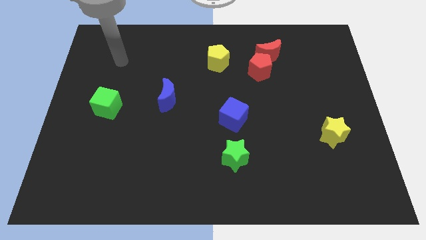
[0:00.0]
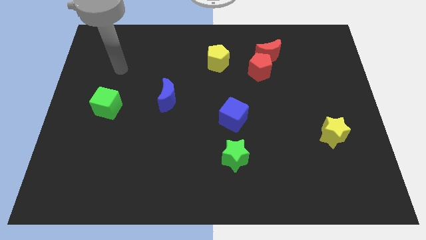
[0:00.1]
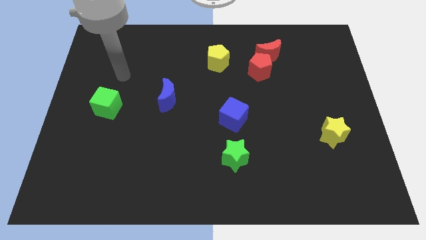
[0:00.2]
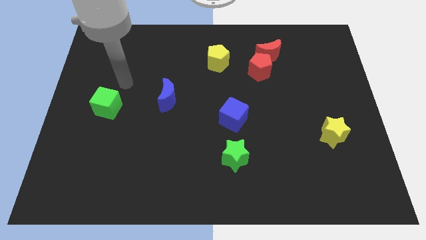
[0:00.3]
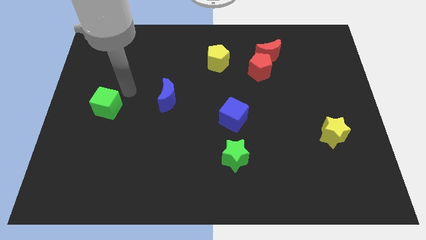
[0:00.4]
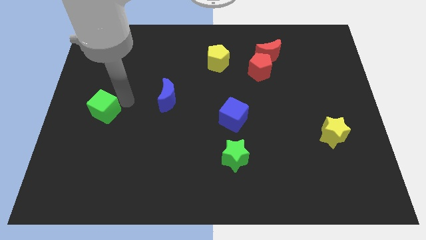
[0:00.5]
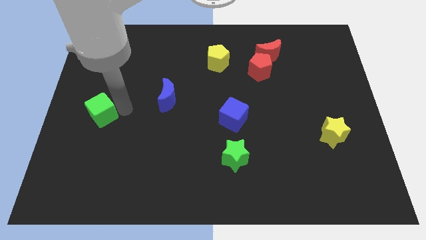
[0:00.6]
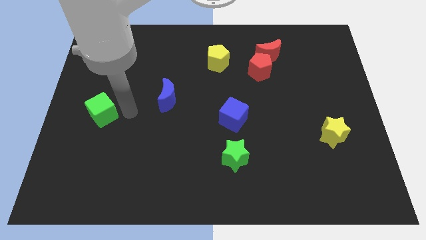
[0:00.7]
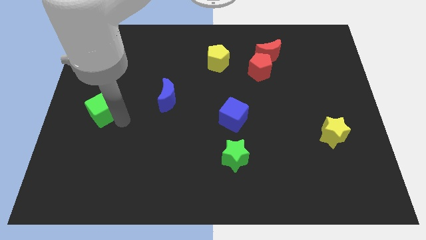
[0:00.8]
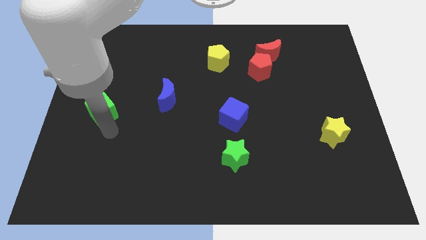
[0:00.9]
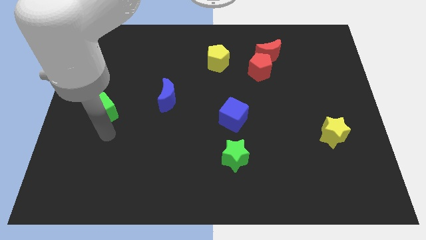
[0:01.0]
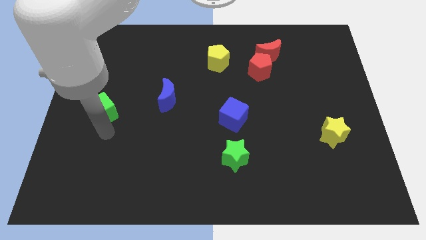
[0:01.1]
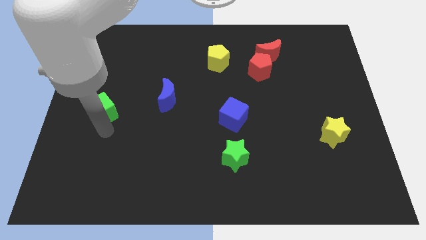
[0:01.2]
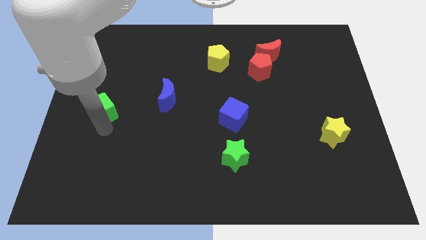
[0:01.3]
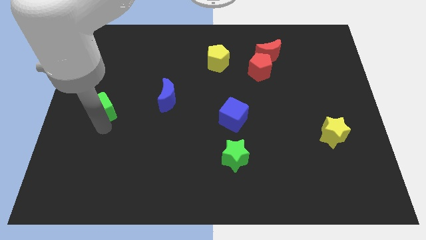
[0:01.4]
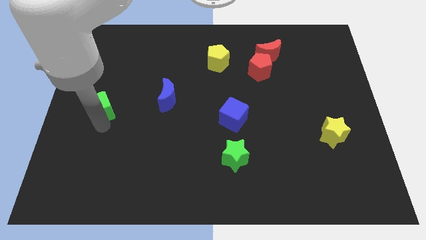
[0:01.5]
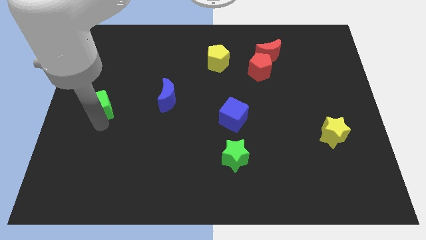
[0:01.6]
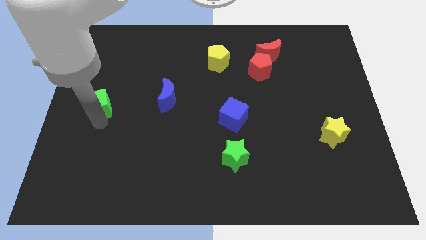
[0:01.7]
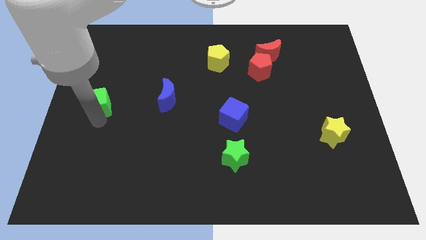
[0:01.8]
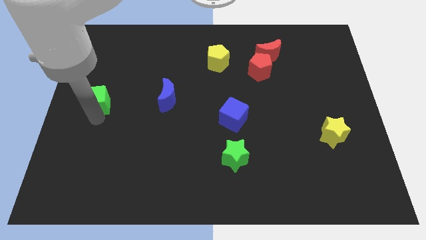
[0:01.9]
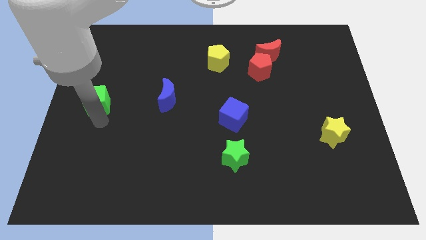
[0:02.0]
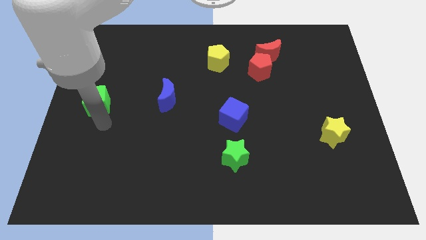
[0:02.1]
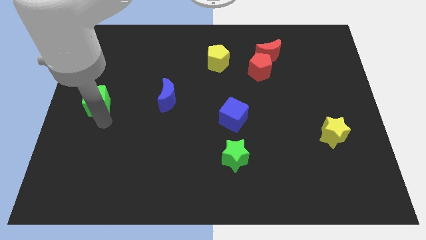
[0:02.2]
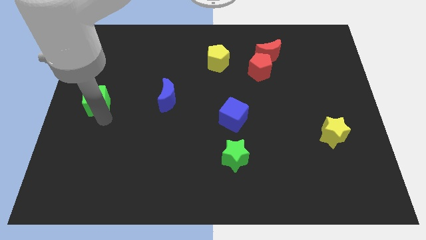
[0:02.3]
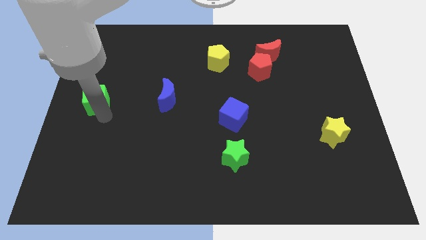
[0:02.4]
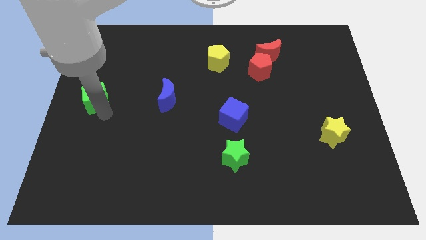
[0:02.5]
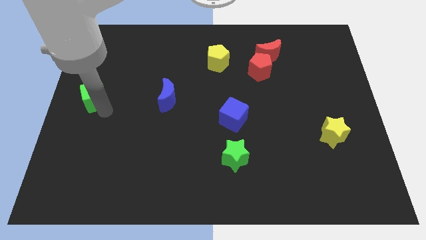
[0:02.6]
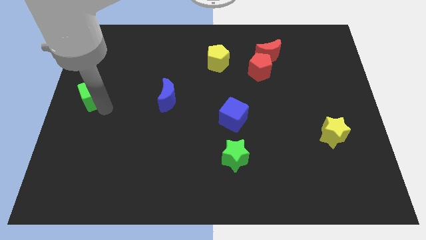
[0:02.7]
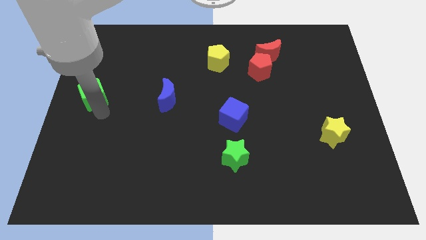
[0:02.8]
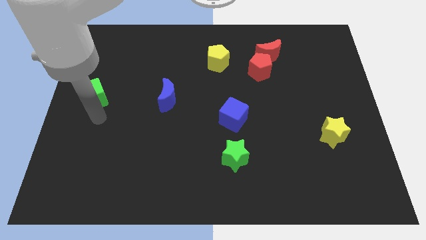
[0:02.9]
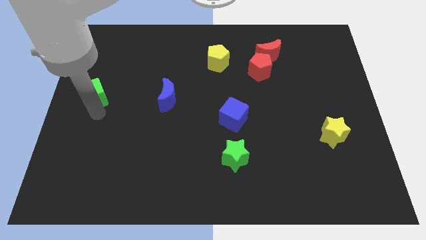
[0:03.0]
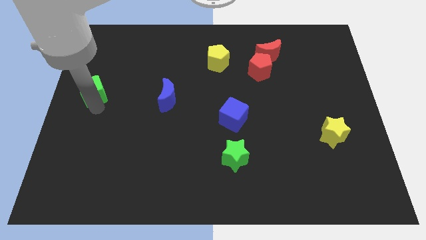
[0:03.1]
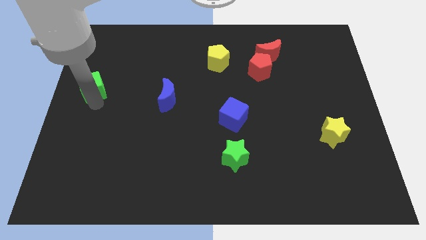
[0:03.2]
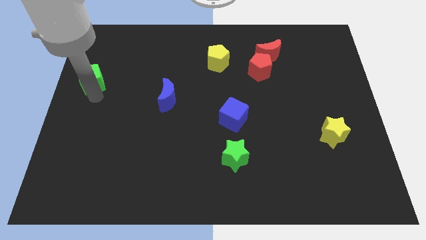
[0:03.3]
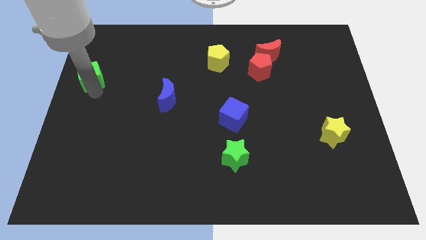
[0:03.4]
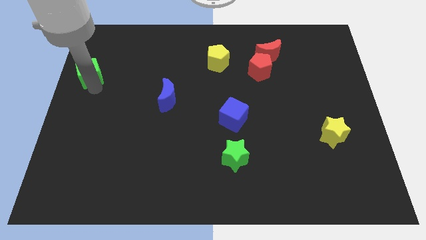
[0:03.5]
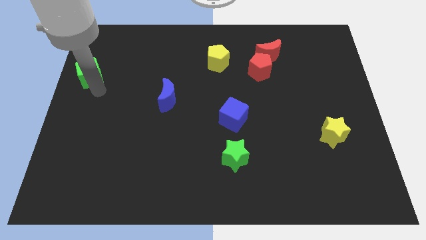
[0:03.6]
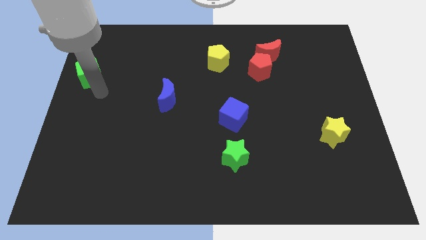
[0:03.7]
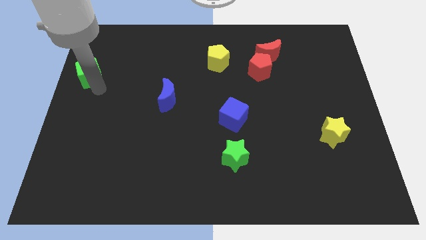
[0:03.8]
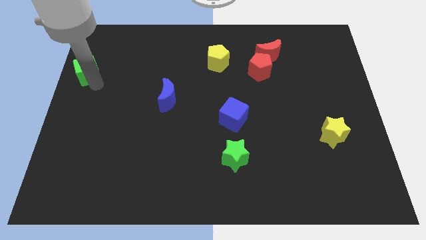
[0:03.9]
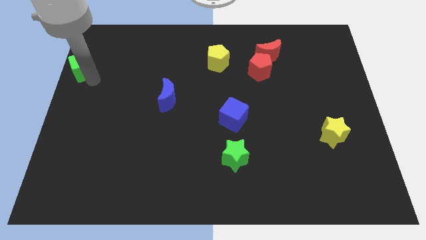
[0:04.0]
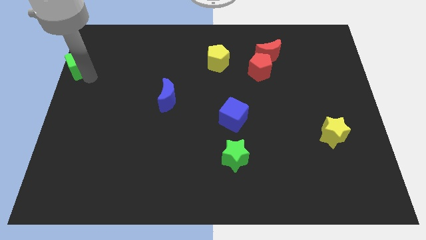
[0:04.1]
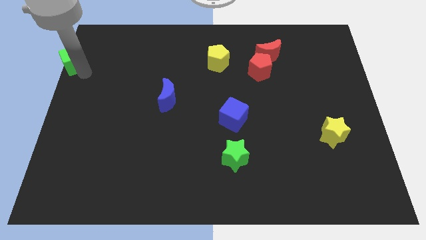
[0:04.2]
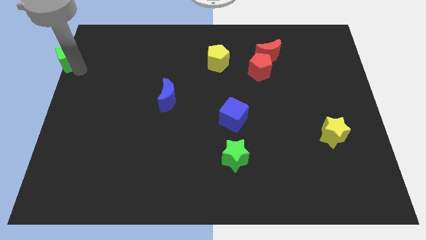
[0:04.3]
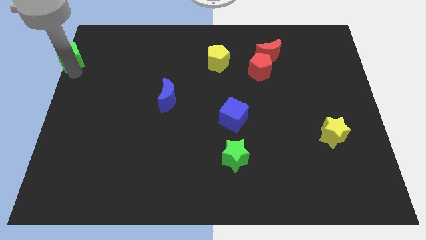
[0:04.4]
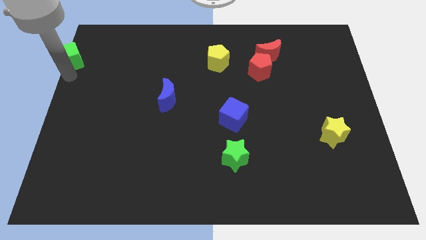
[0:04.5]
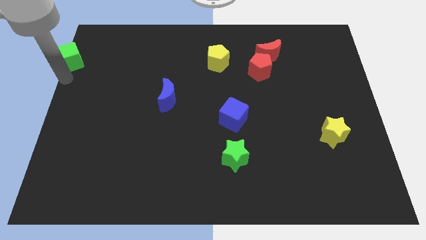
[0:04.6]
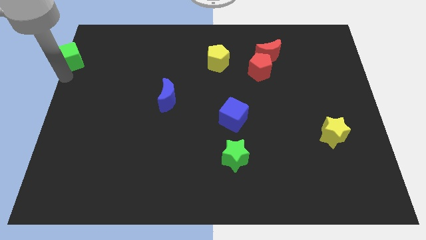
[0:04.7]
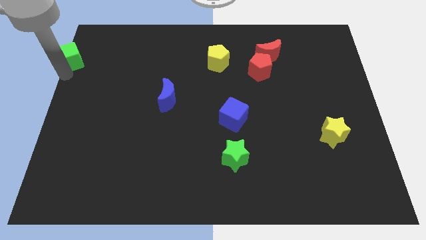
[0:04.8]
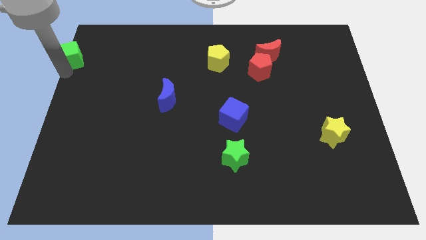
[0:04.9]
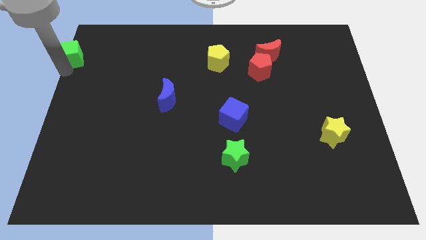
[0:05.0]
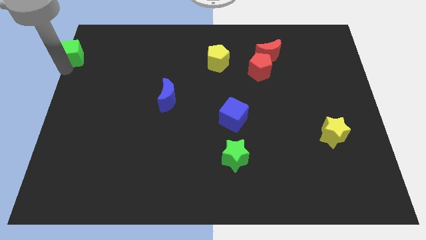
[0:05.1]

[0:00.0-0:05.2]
push the green cube to the top left
